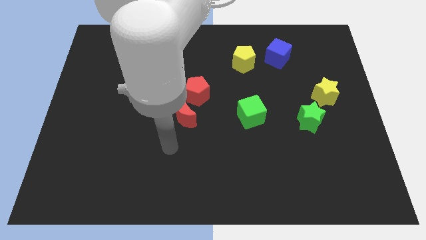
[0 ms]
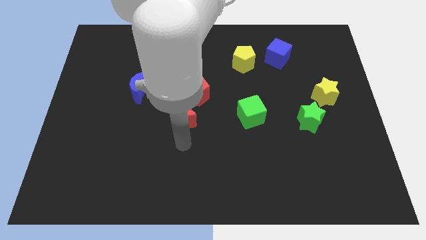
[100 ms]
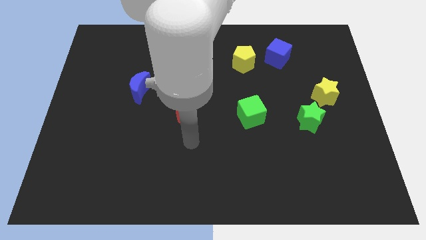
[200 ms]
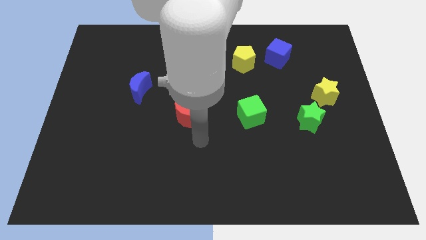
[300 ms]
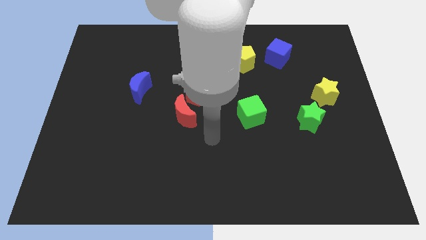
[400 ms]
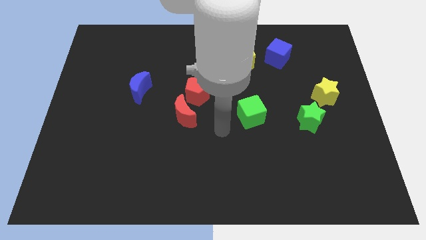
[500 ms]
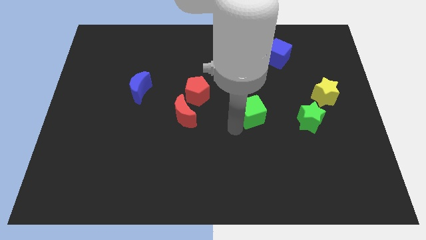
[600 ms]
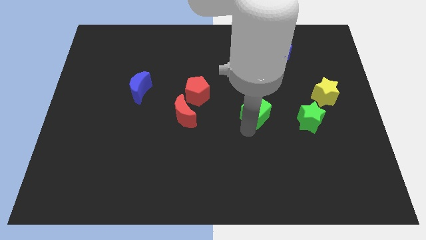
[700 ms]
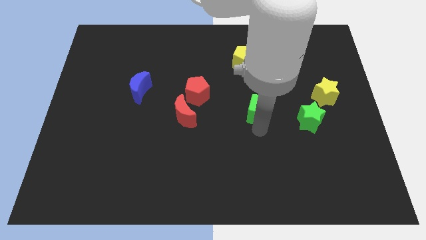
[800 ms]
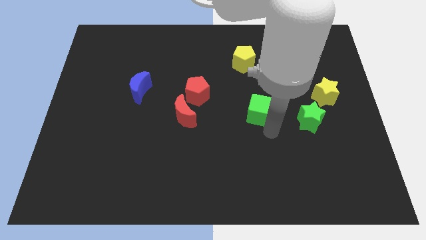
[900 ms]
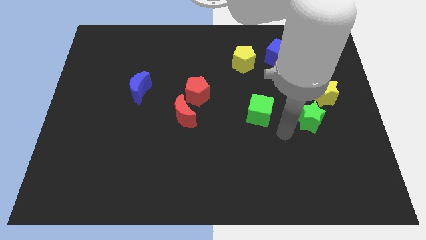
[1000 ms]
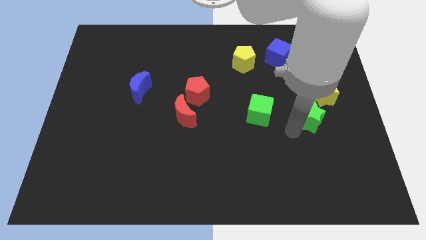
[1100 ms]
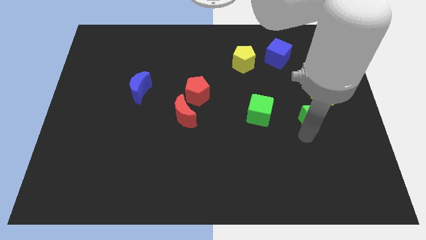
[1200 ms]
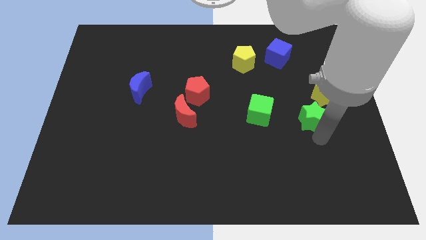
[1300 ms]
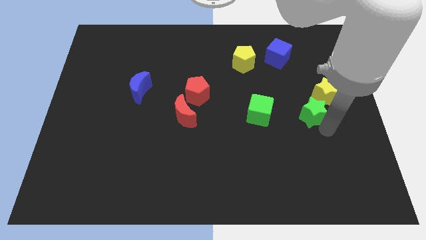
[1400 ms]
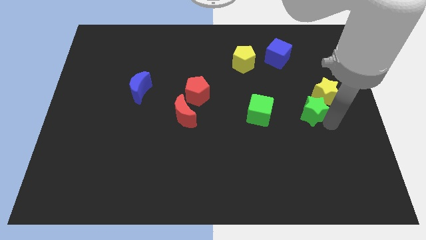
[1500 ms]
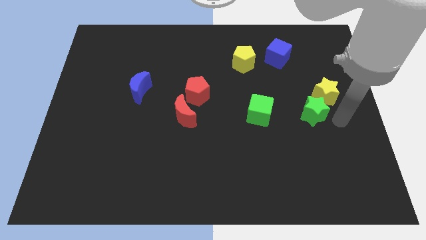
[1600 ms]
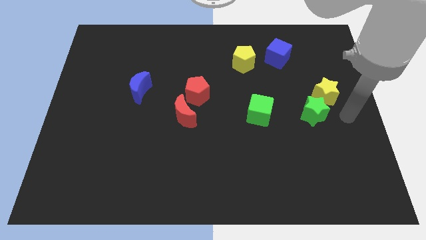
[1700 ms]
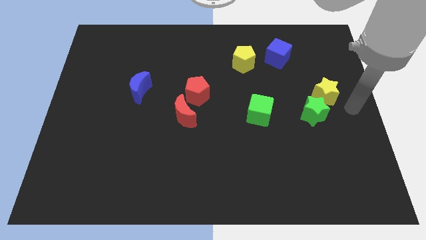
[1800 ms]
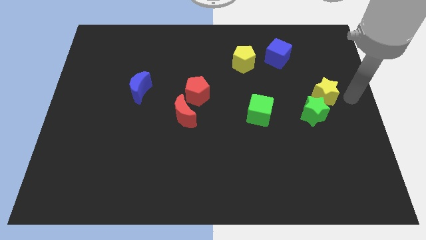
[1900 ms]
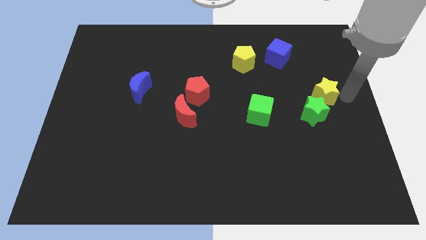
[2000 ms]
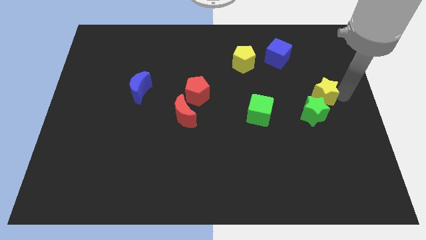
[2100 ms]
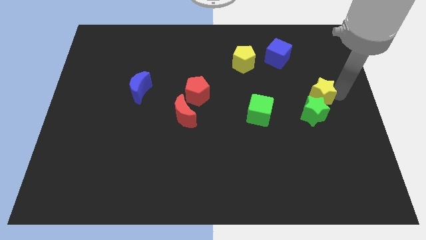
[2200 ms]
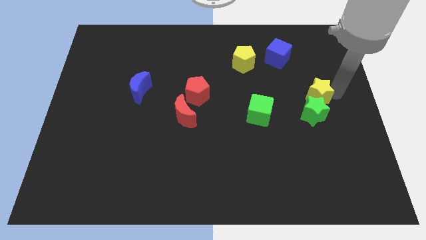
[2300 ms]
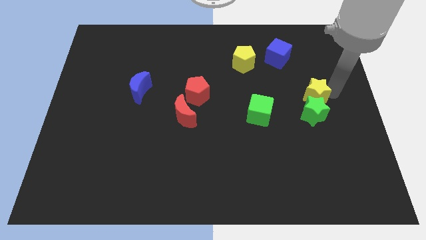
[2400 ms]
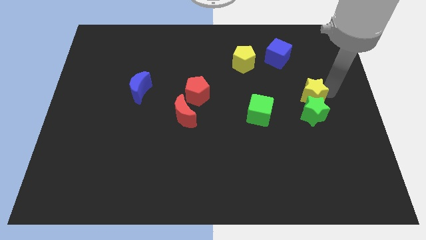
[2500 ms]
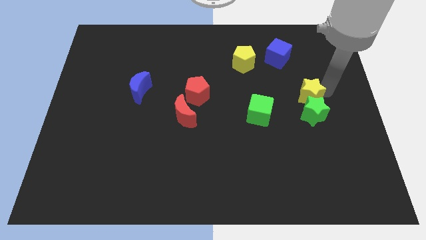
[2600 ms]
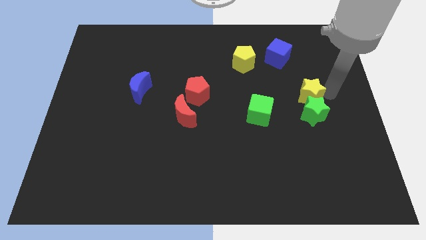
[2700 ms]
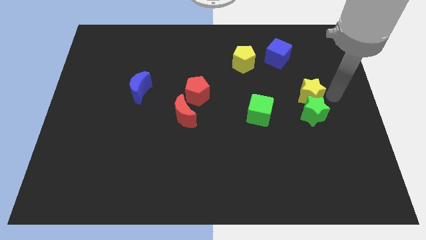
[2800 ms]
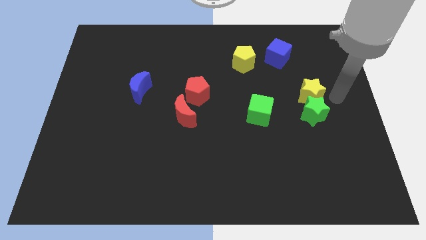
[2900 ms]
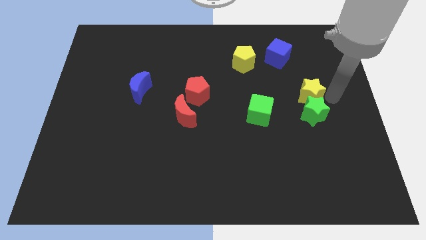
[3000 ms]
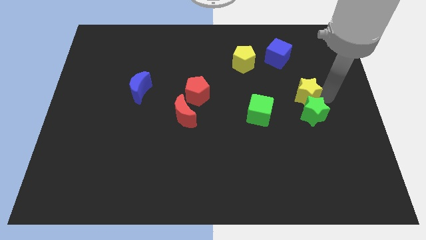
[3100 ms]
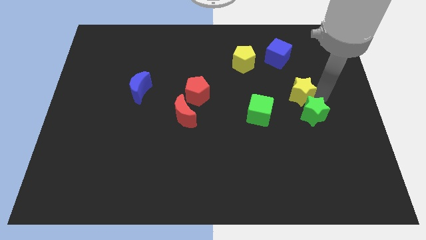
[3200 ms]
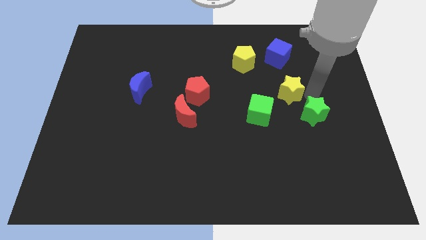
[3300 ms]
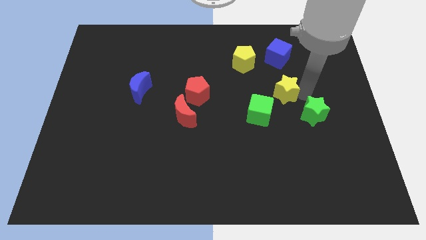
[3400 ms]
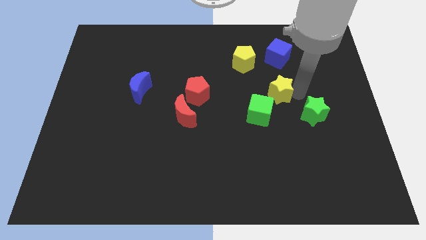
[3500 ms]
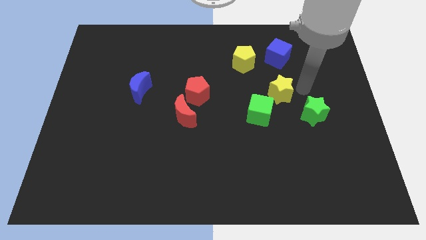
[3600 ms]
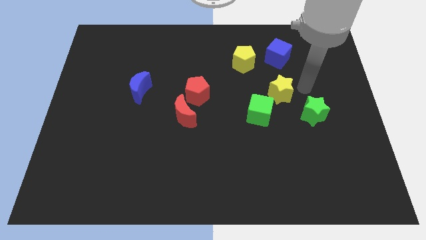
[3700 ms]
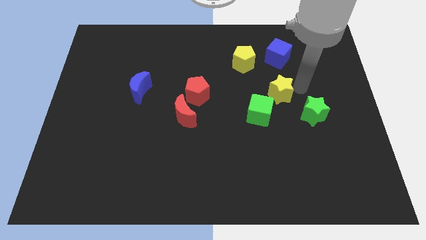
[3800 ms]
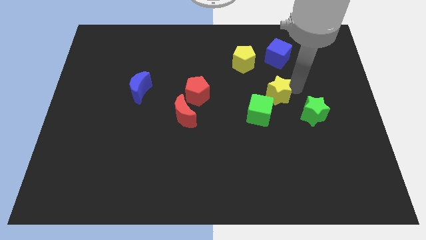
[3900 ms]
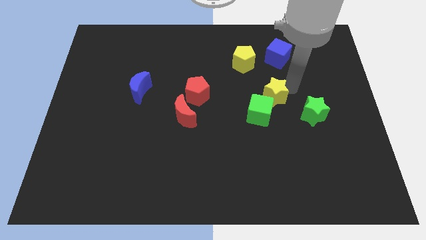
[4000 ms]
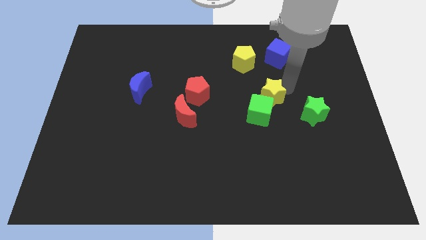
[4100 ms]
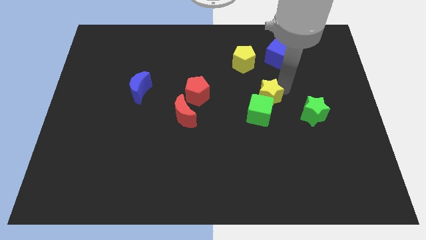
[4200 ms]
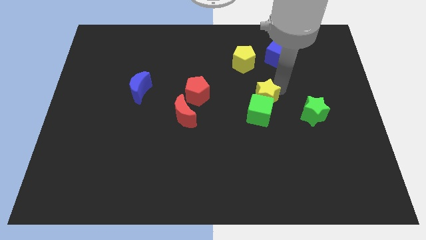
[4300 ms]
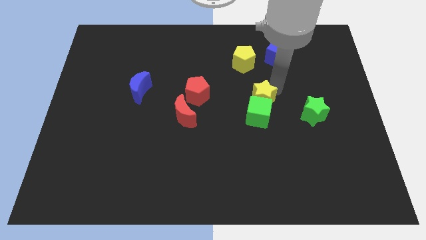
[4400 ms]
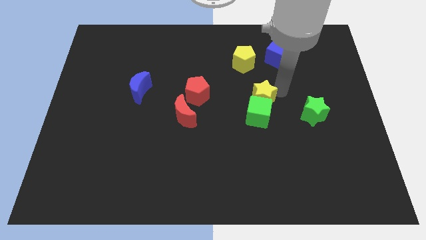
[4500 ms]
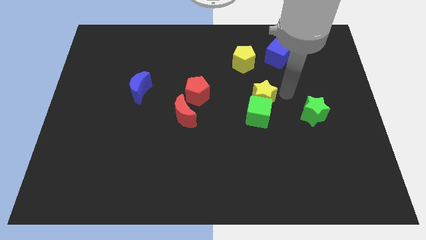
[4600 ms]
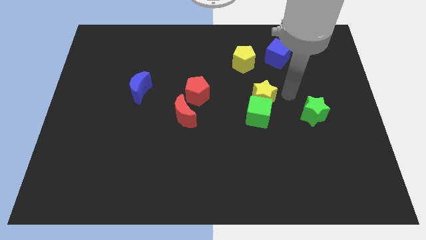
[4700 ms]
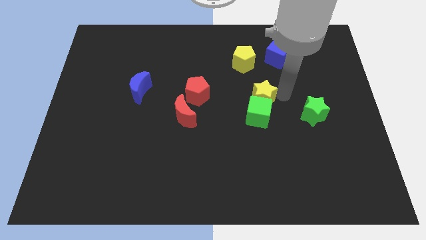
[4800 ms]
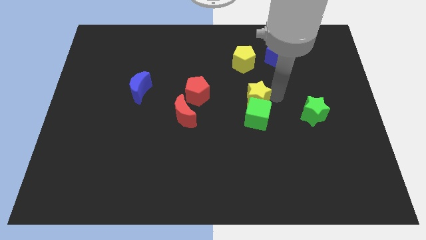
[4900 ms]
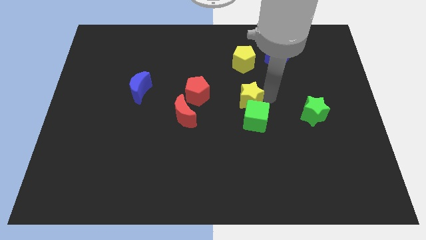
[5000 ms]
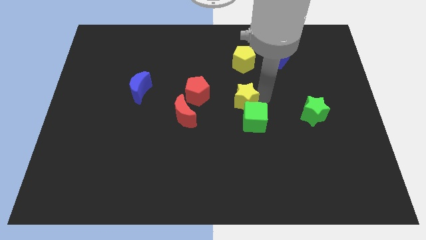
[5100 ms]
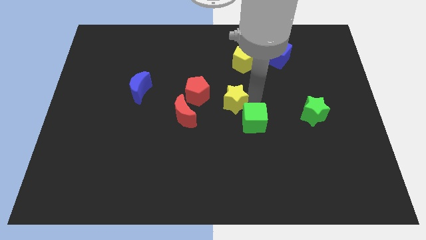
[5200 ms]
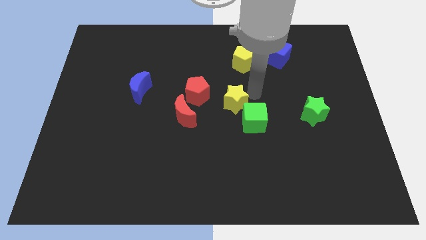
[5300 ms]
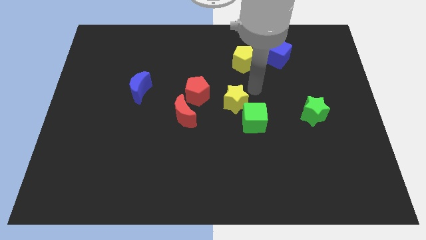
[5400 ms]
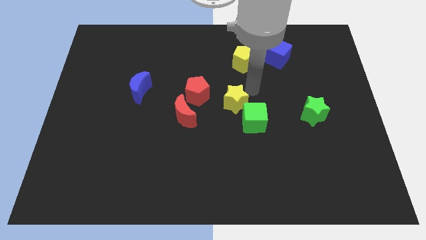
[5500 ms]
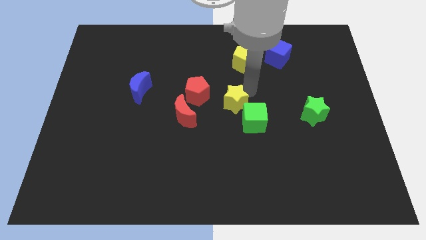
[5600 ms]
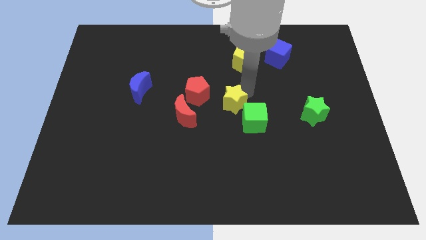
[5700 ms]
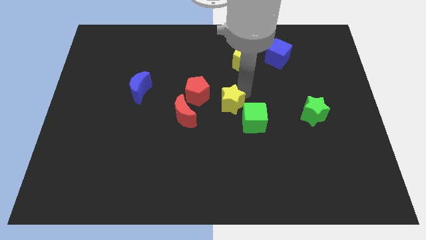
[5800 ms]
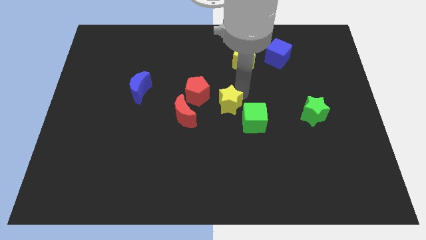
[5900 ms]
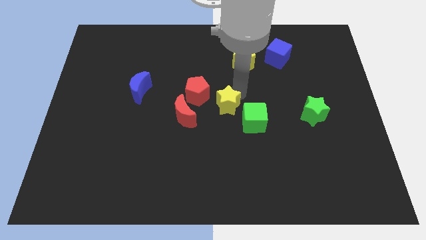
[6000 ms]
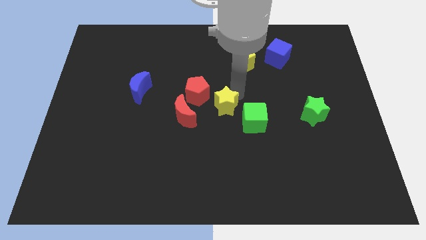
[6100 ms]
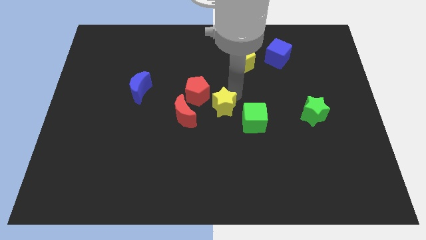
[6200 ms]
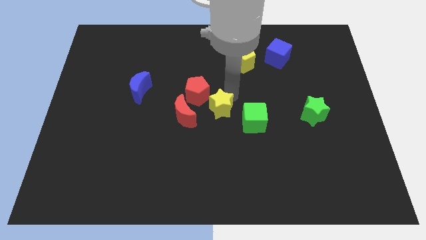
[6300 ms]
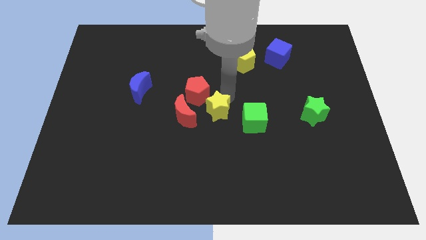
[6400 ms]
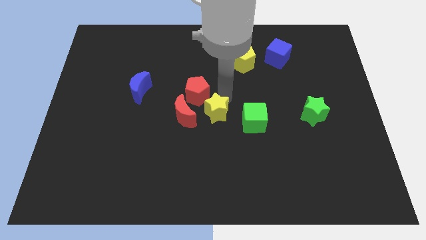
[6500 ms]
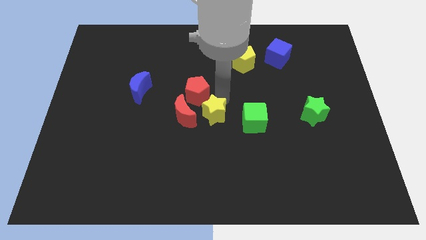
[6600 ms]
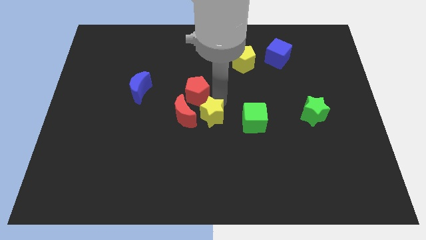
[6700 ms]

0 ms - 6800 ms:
move the yellow star to the bottom right side of the red moon
